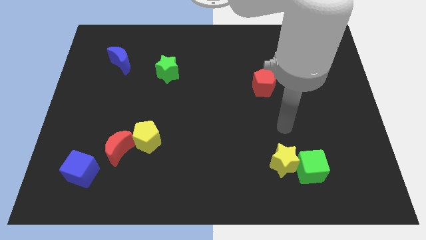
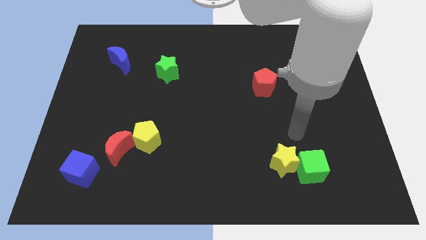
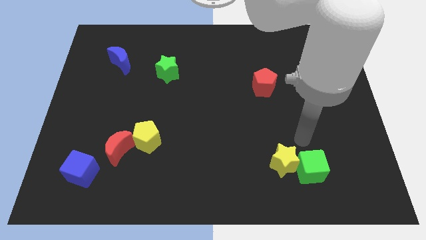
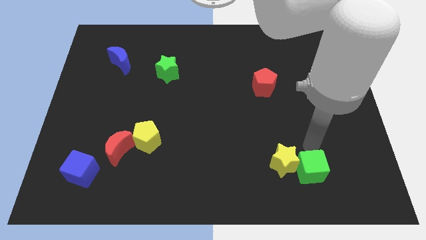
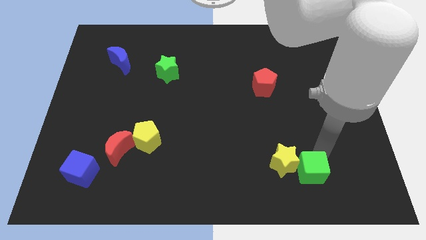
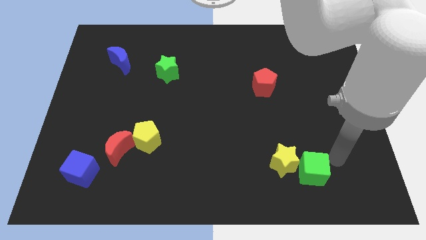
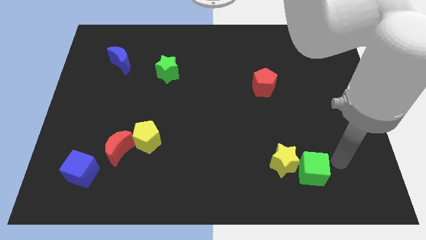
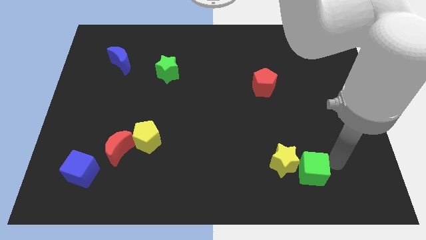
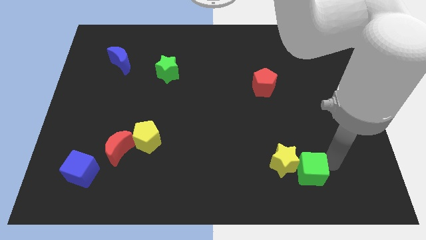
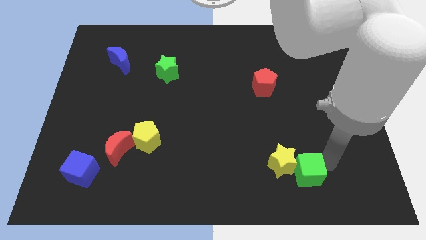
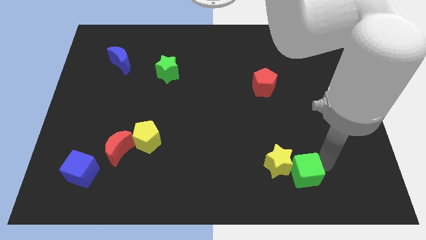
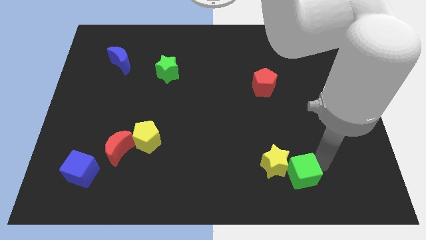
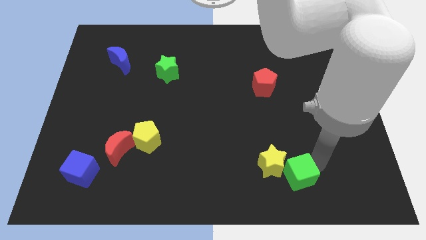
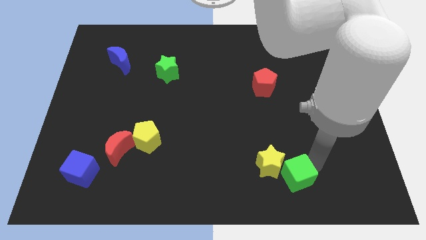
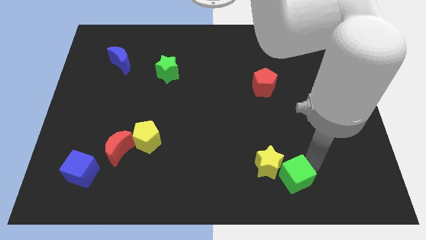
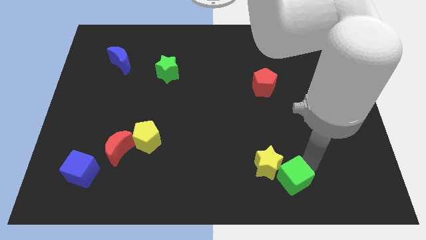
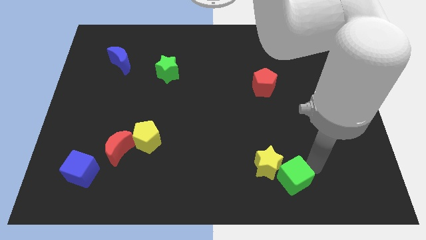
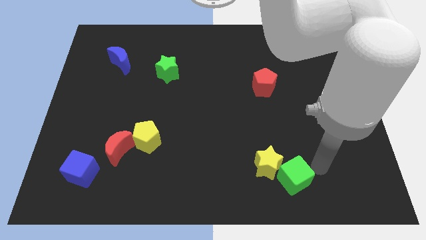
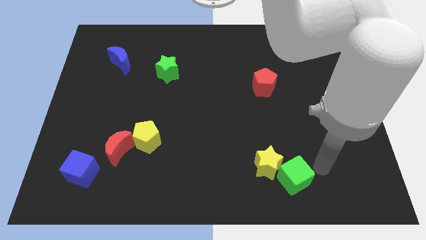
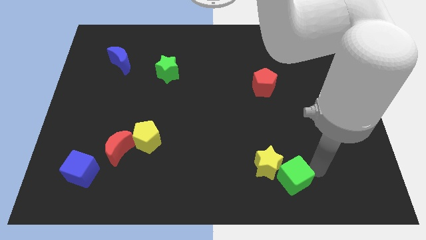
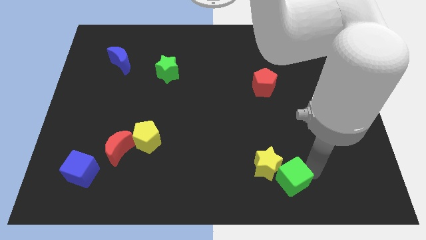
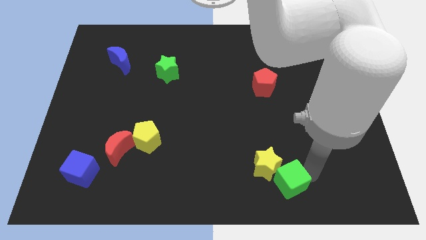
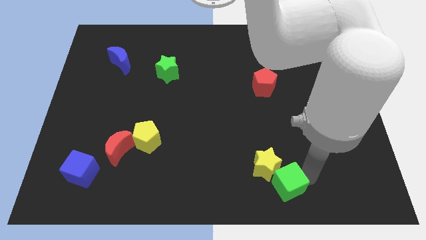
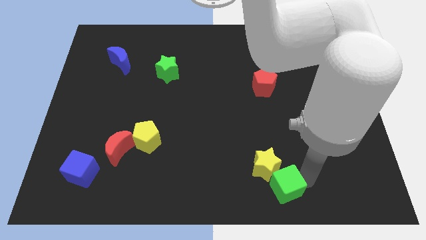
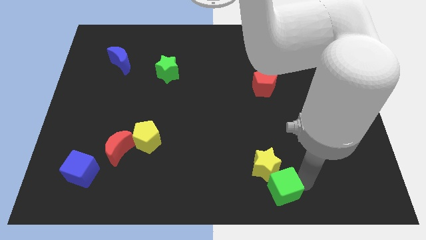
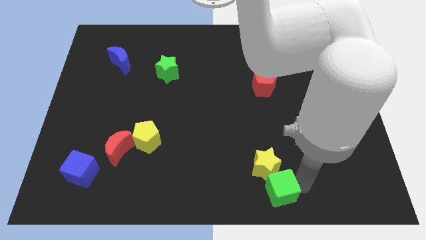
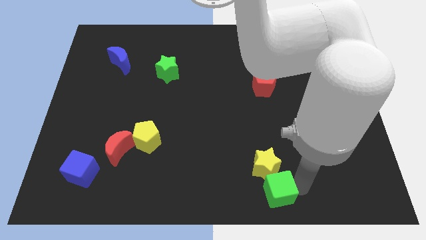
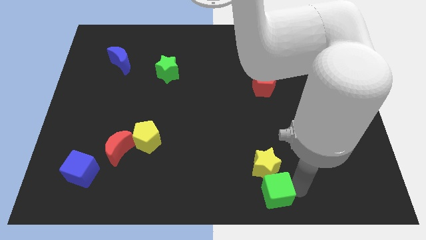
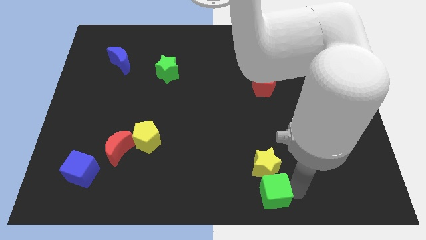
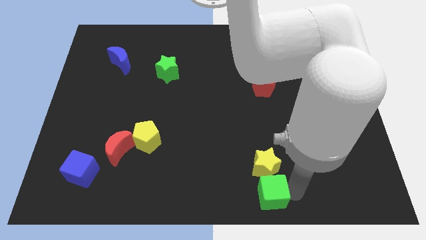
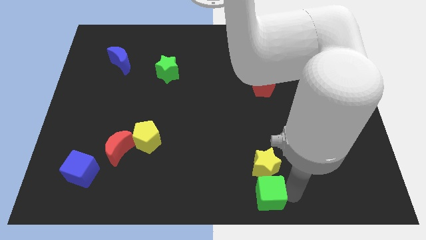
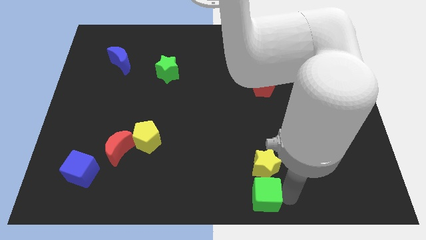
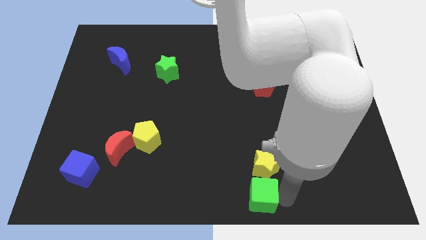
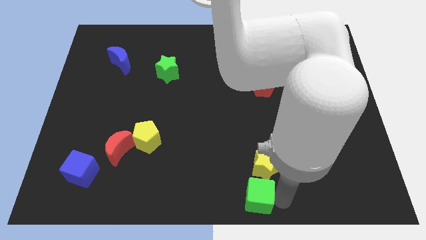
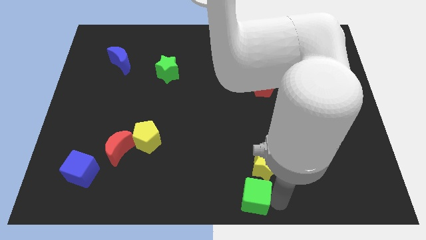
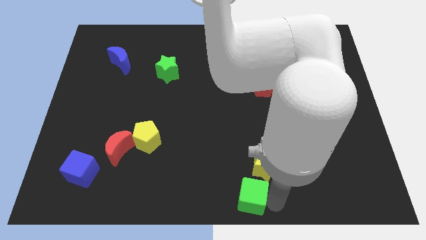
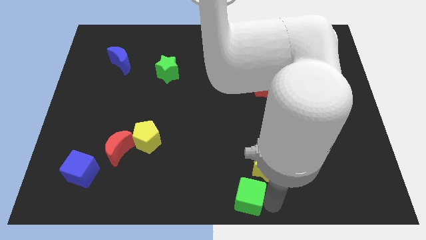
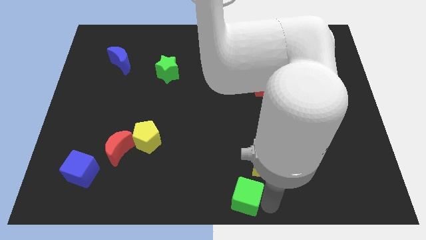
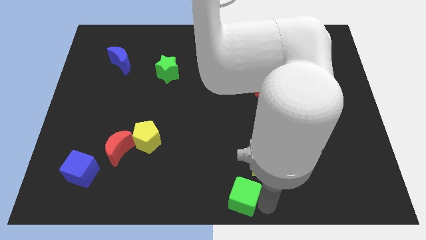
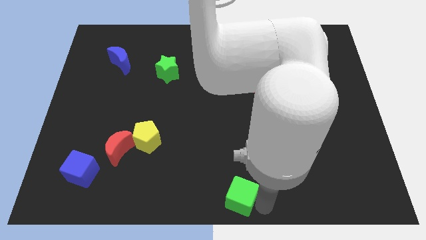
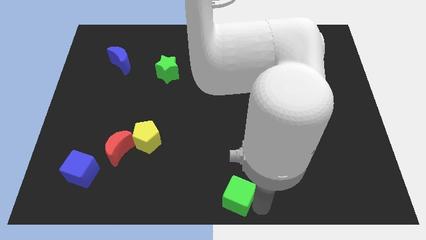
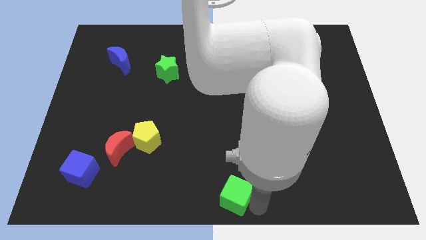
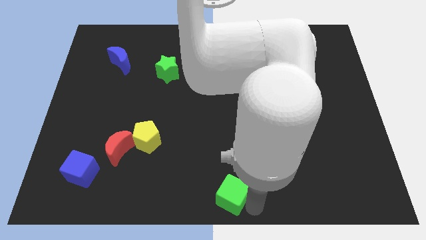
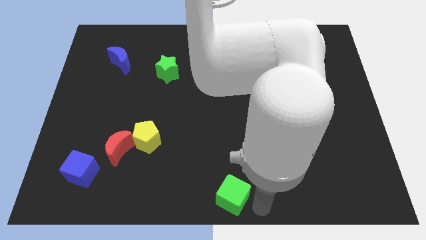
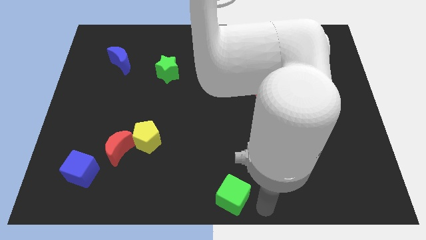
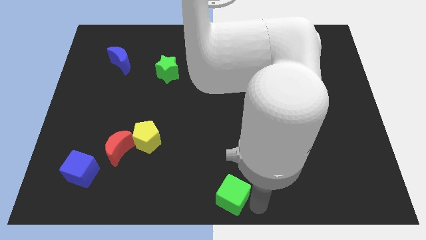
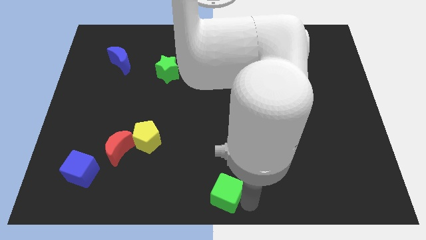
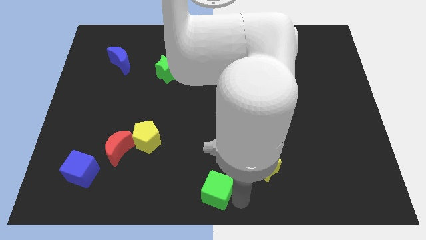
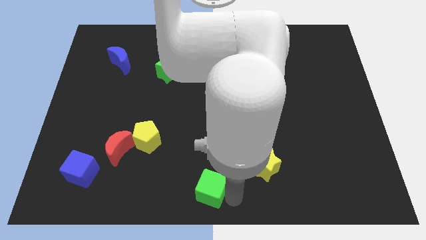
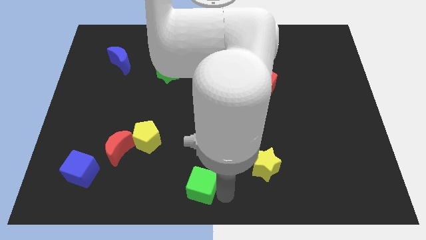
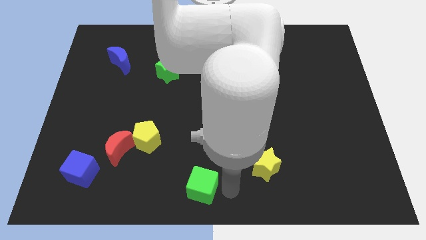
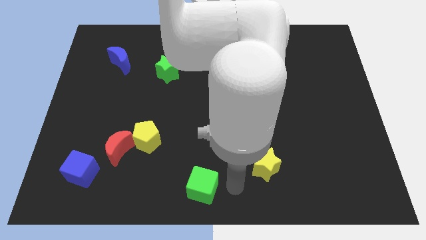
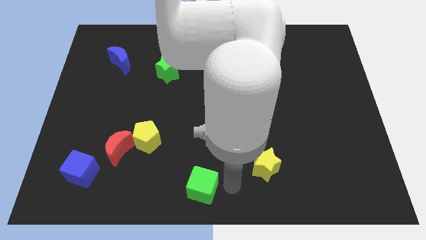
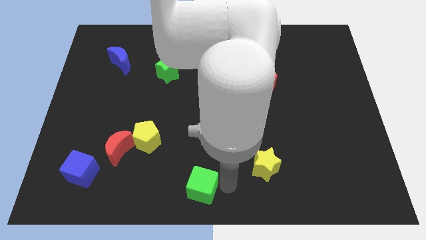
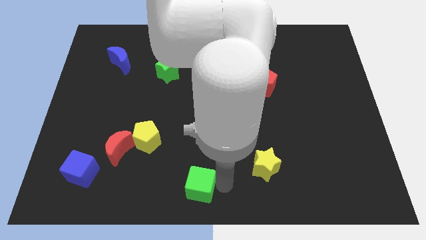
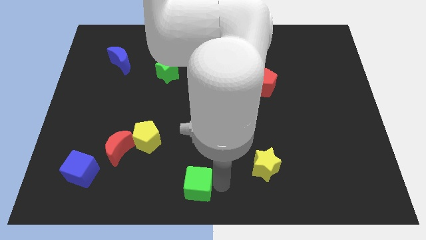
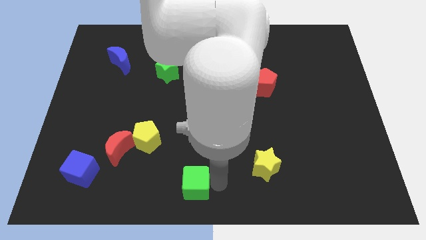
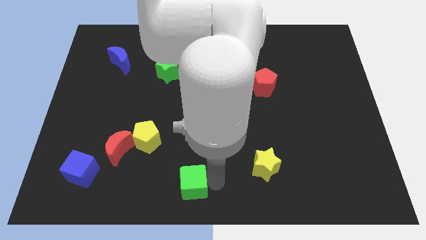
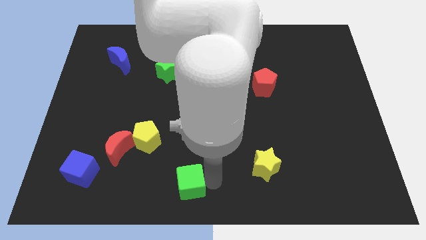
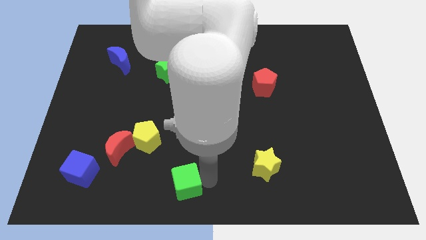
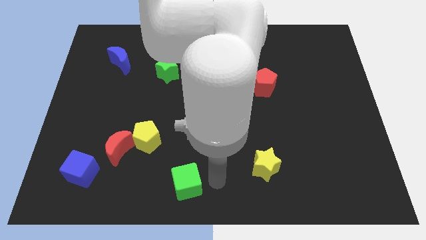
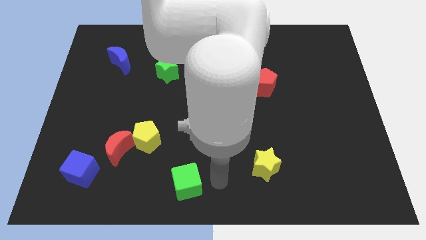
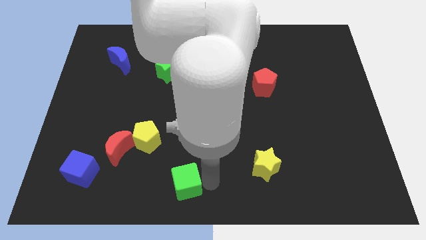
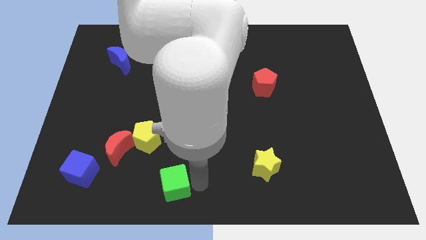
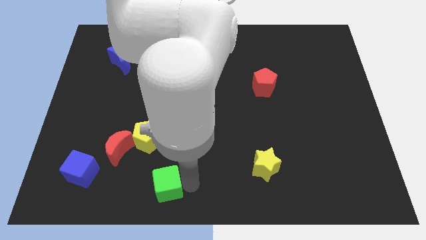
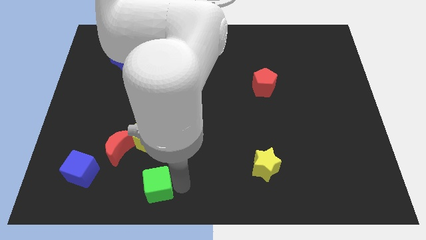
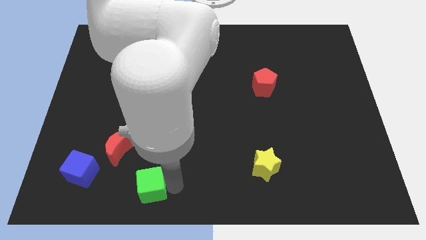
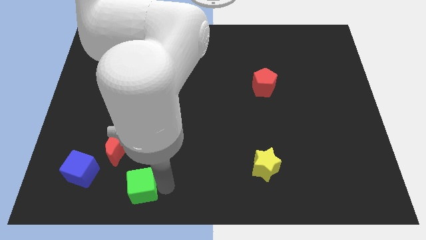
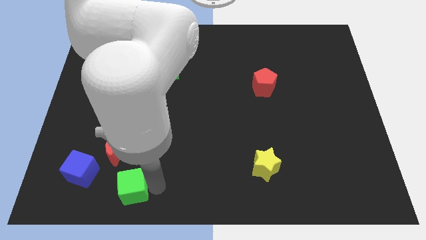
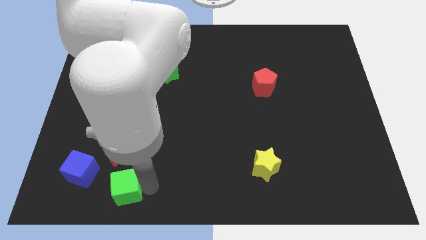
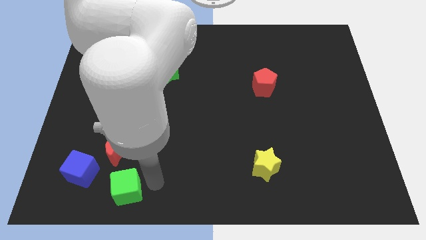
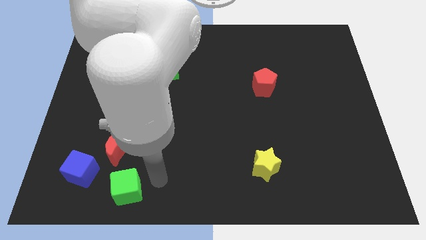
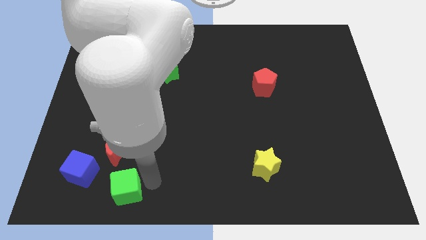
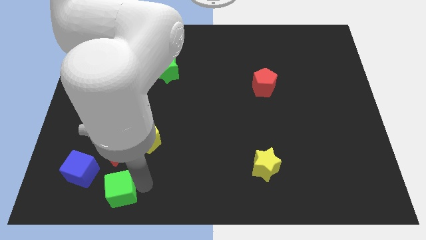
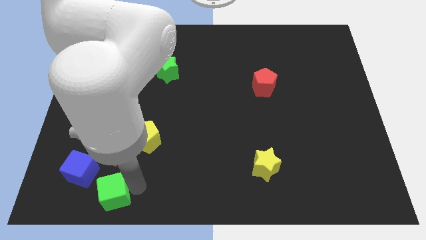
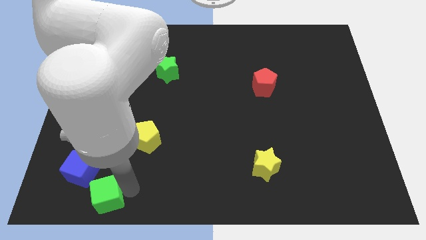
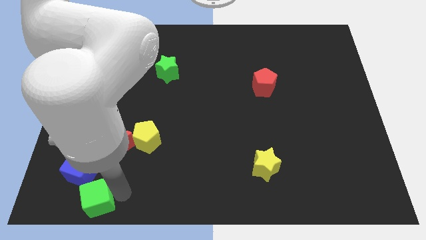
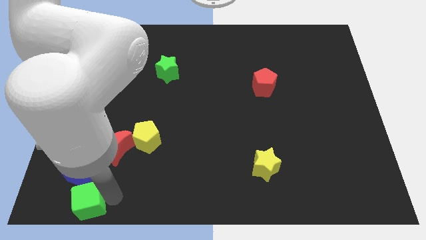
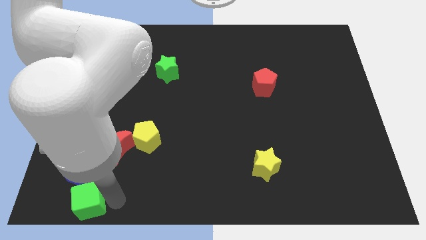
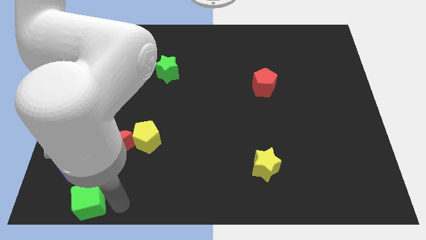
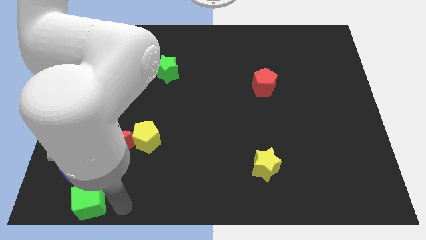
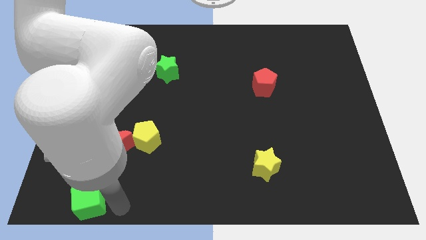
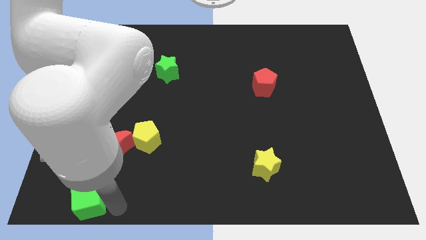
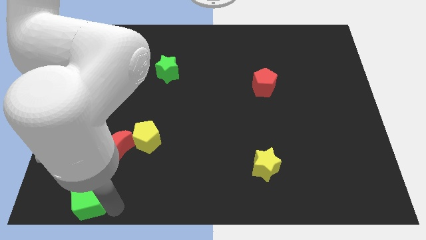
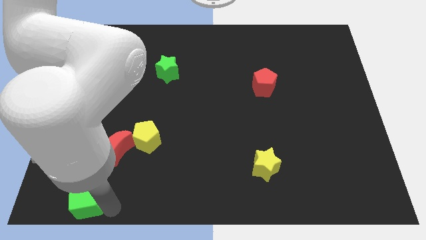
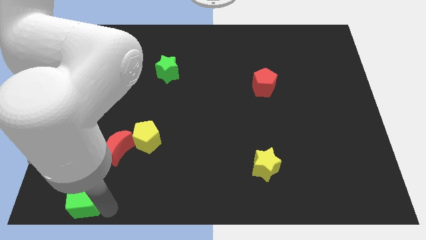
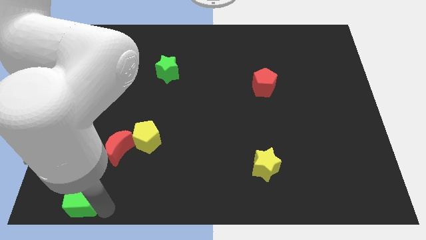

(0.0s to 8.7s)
move the green cube to the bottom left
